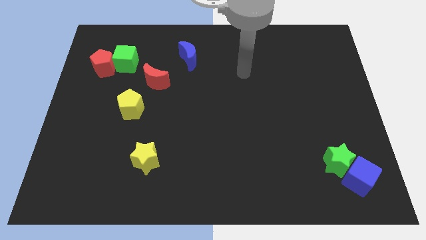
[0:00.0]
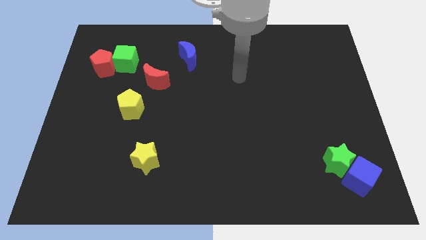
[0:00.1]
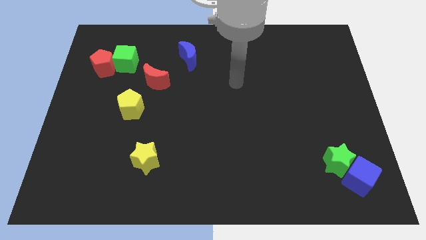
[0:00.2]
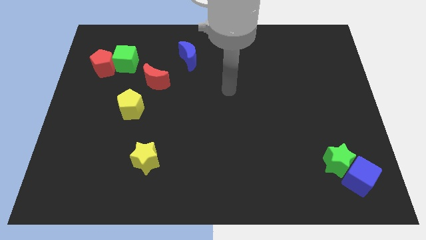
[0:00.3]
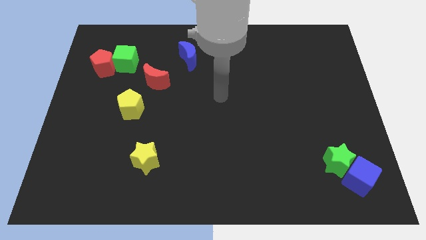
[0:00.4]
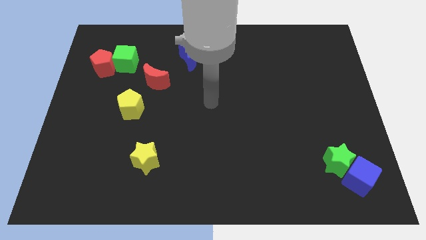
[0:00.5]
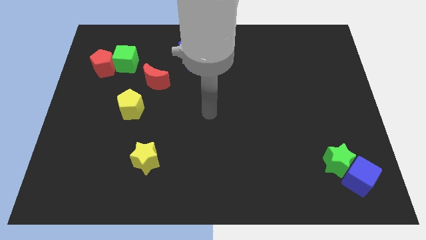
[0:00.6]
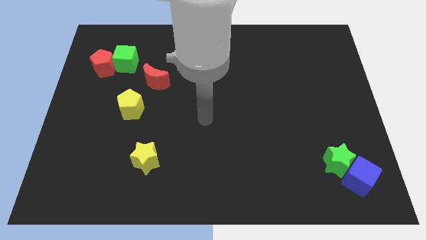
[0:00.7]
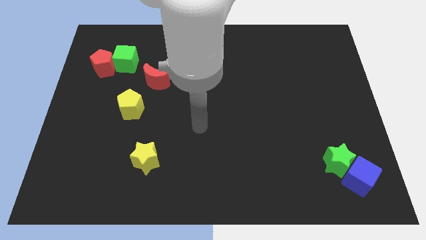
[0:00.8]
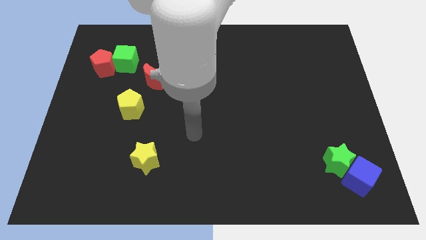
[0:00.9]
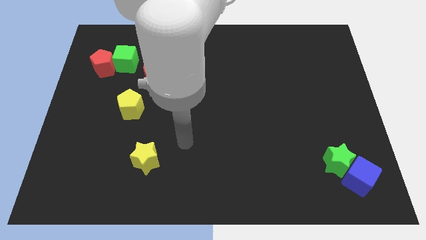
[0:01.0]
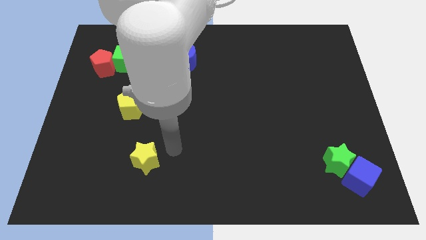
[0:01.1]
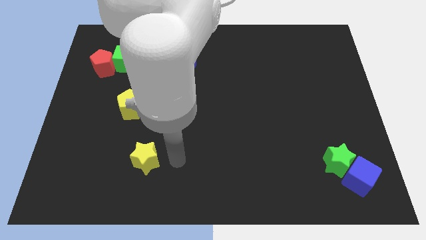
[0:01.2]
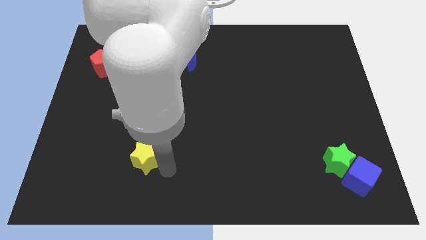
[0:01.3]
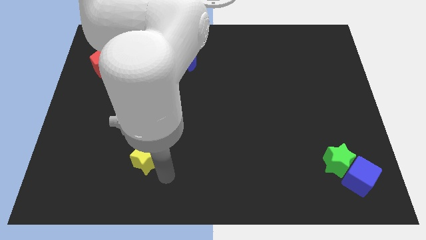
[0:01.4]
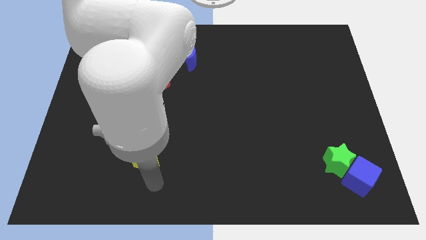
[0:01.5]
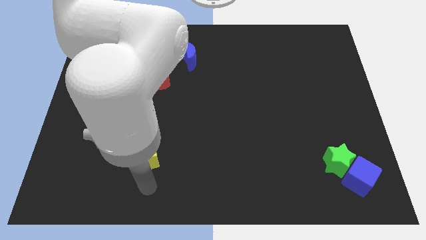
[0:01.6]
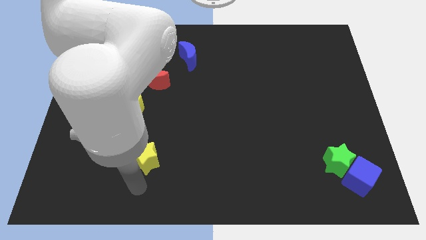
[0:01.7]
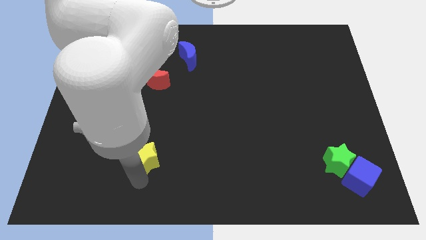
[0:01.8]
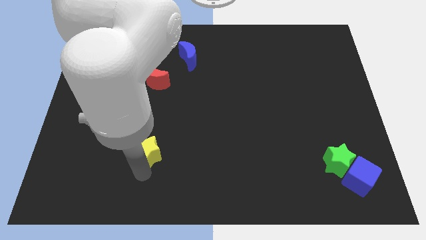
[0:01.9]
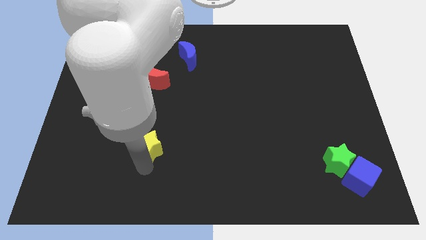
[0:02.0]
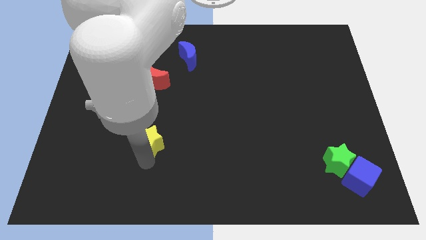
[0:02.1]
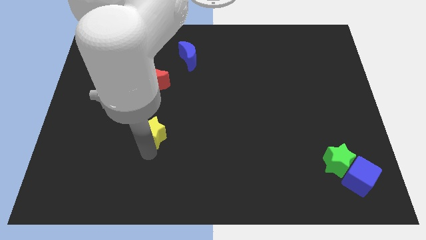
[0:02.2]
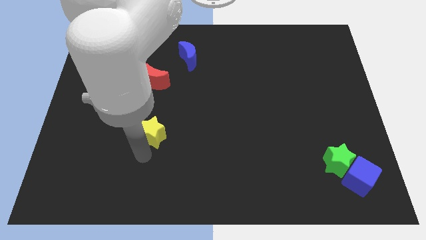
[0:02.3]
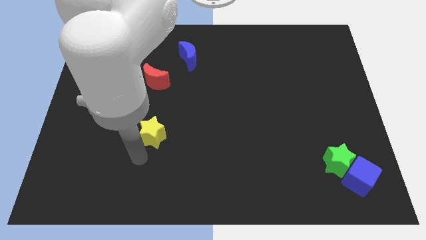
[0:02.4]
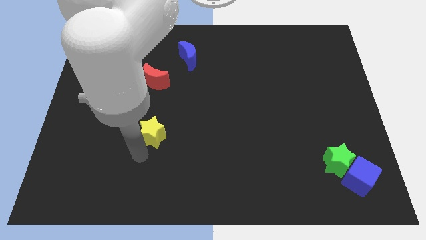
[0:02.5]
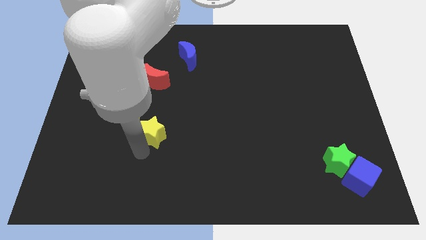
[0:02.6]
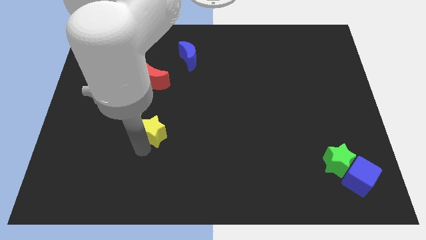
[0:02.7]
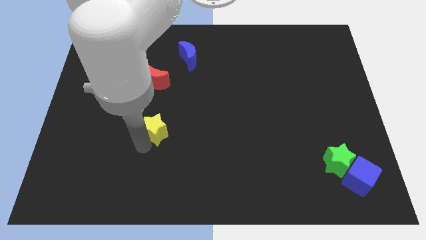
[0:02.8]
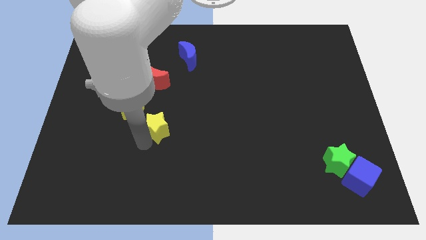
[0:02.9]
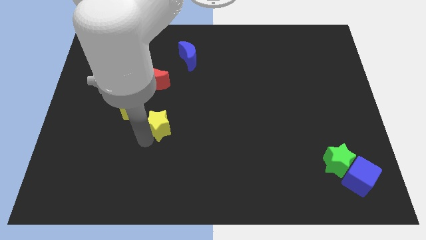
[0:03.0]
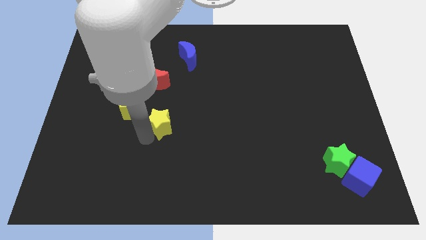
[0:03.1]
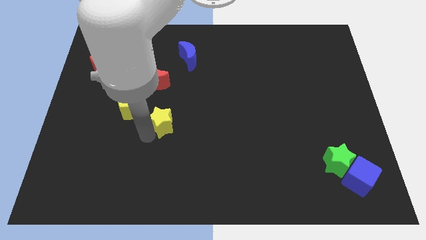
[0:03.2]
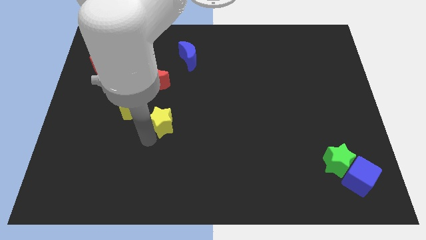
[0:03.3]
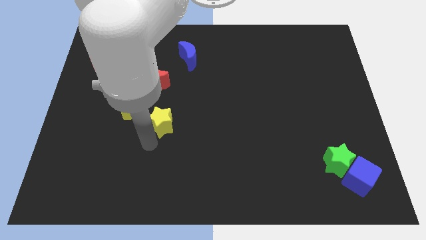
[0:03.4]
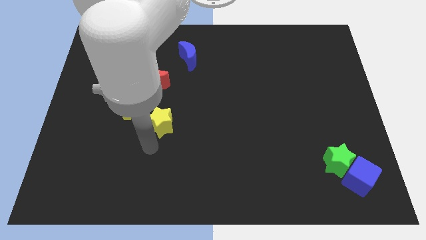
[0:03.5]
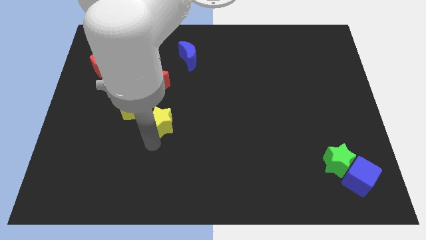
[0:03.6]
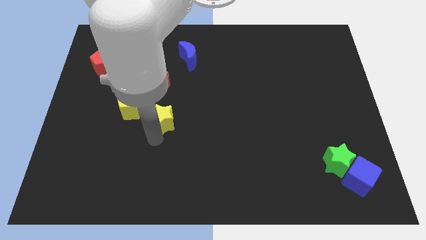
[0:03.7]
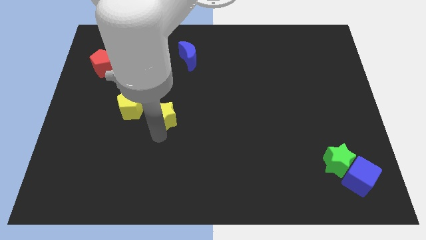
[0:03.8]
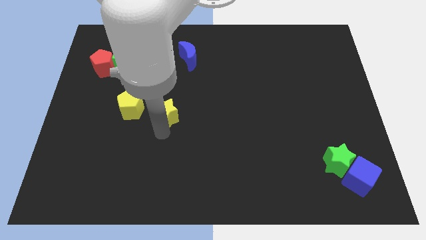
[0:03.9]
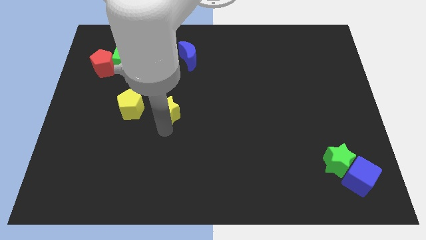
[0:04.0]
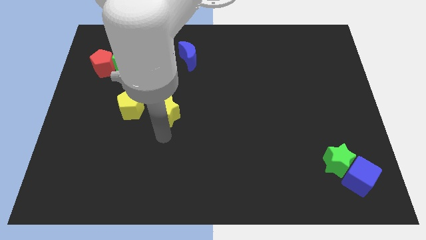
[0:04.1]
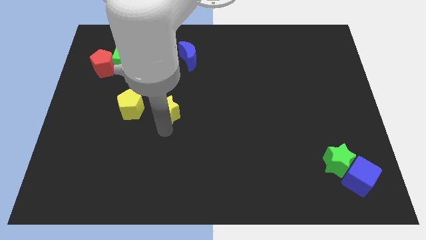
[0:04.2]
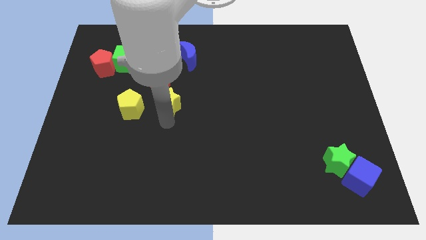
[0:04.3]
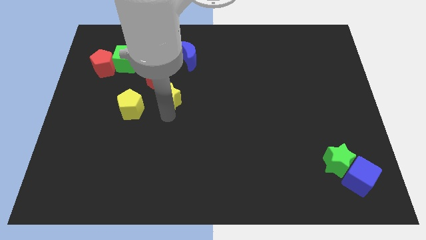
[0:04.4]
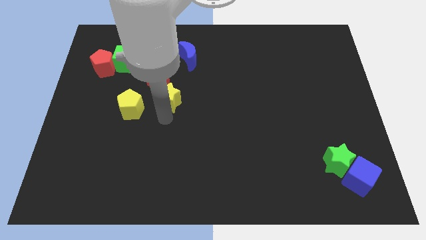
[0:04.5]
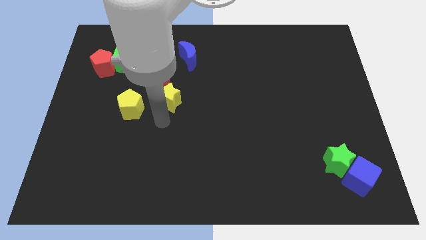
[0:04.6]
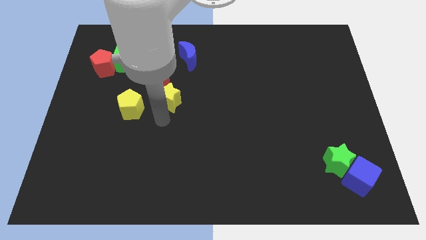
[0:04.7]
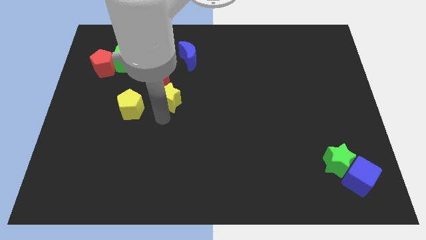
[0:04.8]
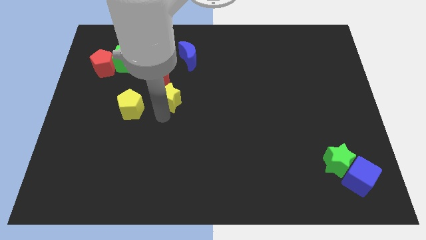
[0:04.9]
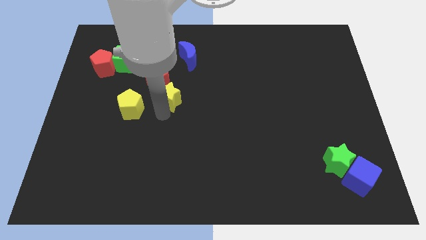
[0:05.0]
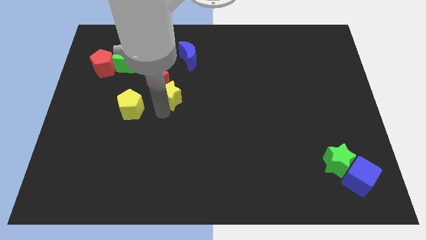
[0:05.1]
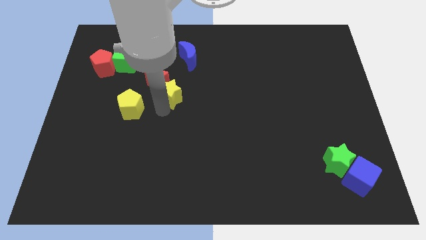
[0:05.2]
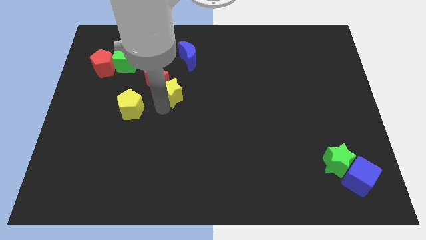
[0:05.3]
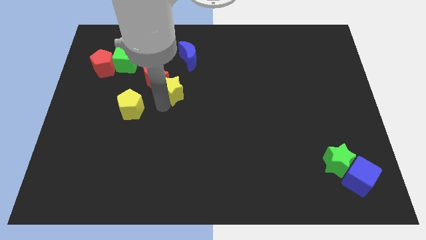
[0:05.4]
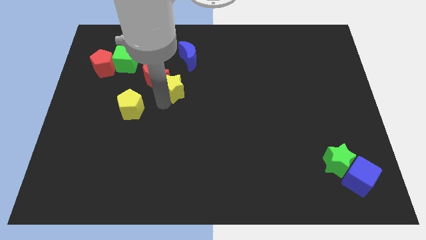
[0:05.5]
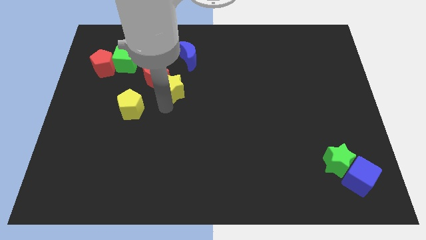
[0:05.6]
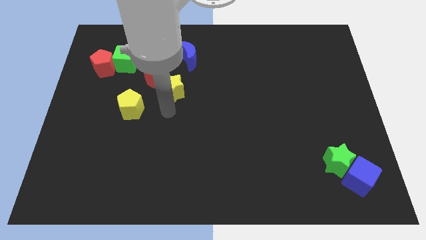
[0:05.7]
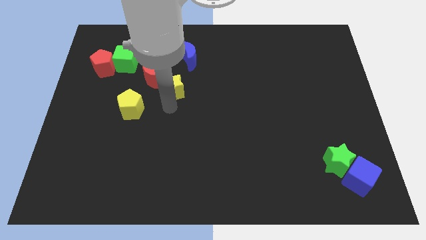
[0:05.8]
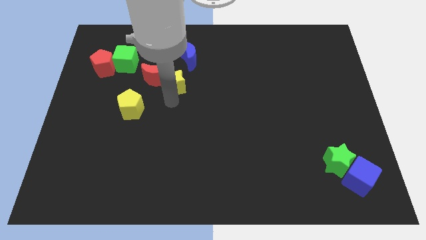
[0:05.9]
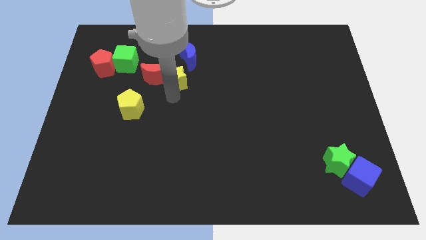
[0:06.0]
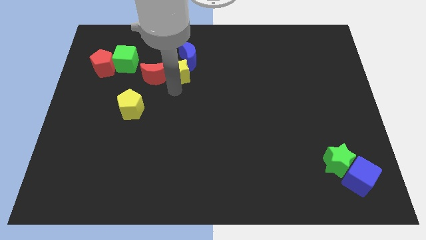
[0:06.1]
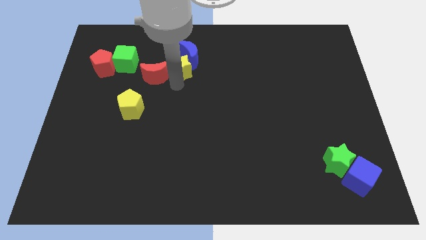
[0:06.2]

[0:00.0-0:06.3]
move the yellow star next to the blue moon
